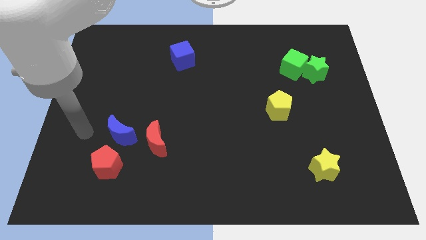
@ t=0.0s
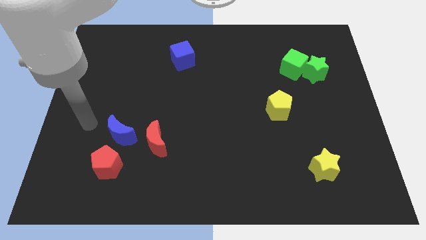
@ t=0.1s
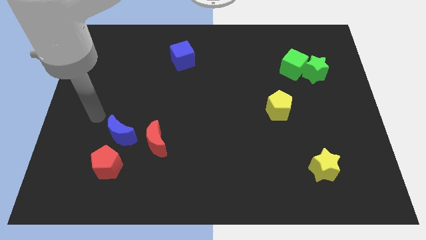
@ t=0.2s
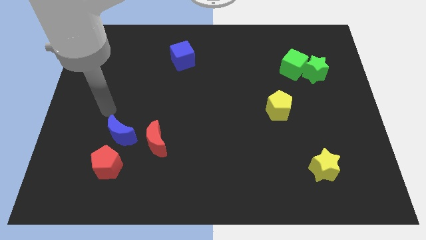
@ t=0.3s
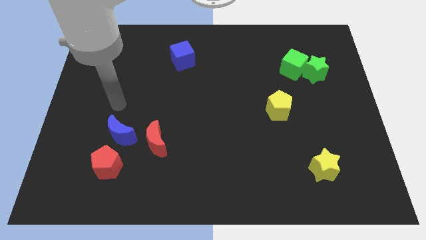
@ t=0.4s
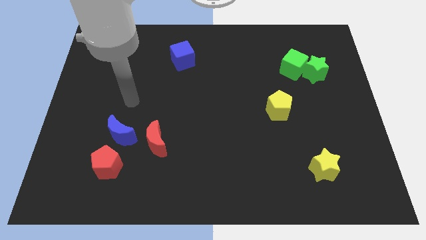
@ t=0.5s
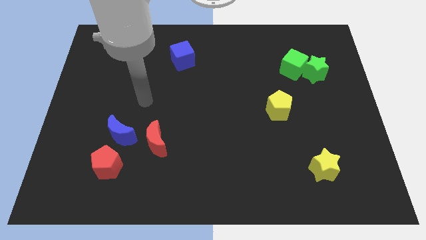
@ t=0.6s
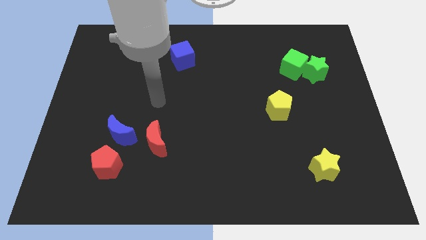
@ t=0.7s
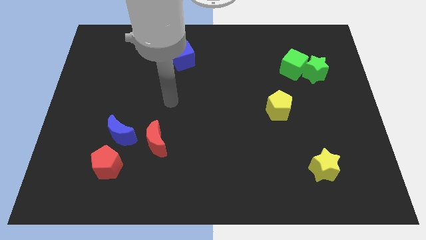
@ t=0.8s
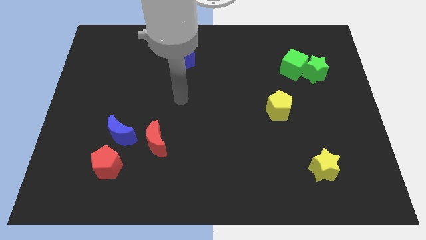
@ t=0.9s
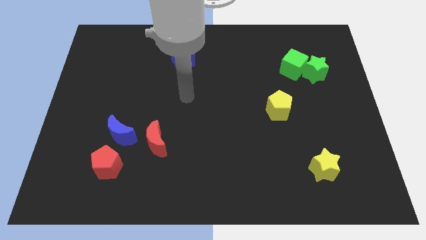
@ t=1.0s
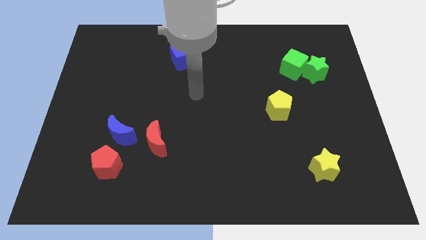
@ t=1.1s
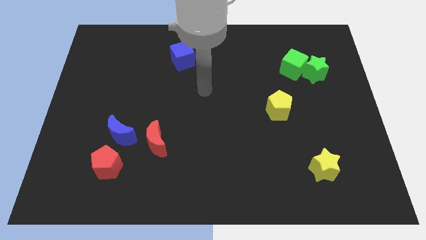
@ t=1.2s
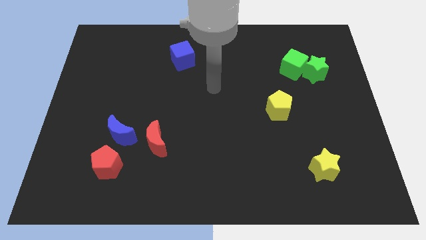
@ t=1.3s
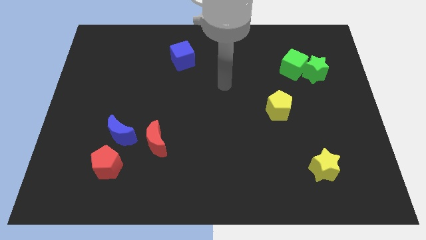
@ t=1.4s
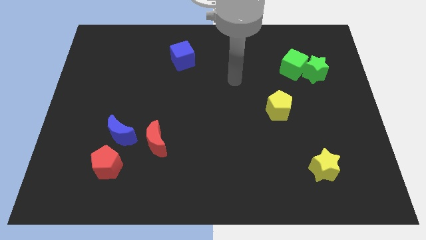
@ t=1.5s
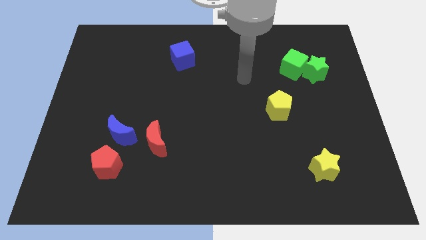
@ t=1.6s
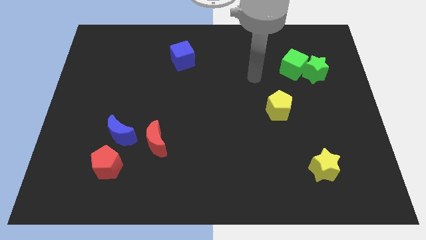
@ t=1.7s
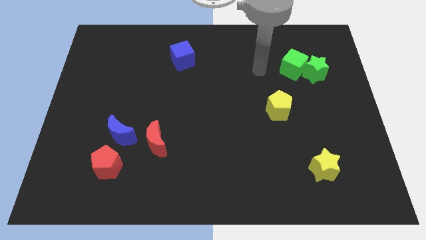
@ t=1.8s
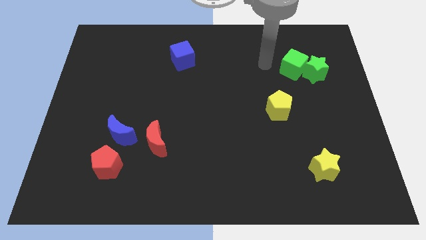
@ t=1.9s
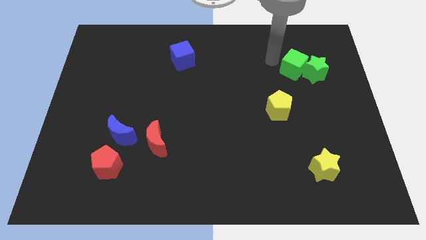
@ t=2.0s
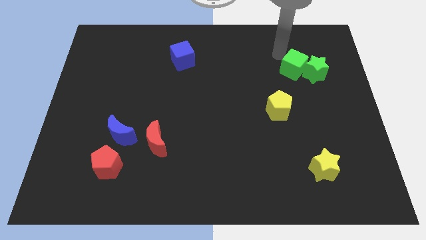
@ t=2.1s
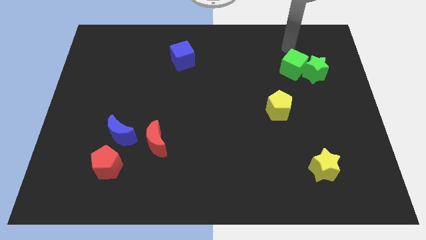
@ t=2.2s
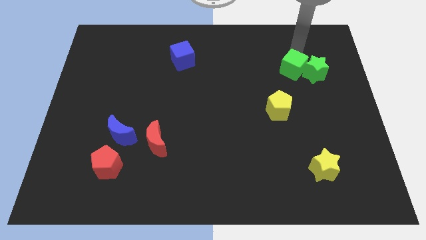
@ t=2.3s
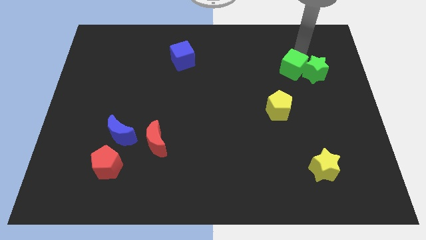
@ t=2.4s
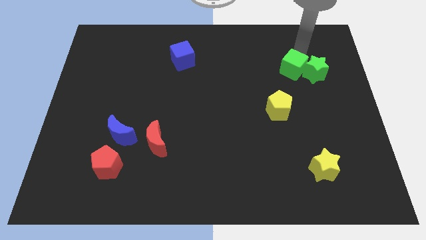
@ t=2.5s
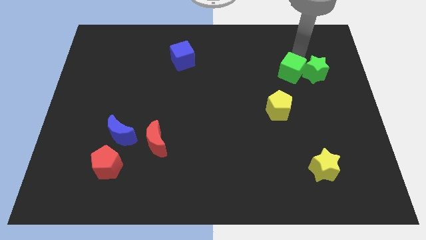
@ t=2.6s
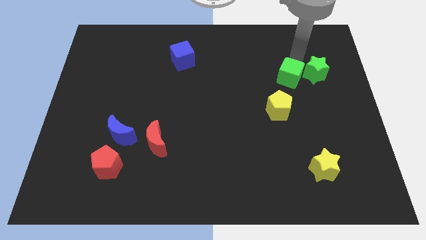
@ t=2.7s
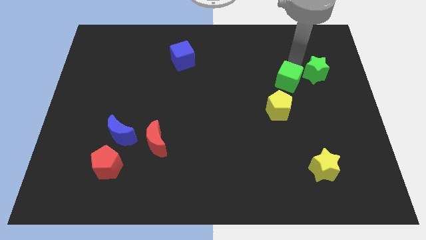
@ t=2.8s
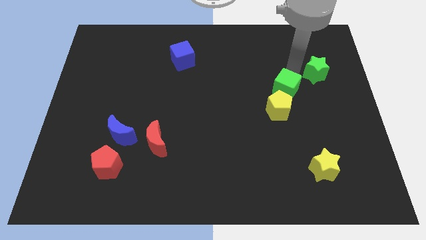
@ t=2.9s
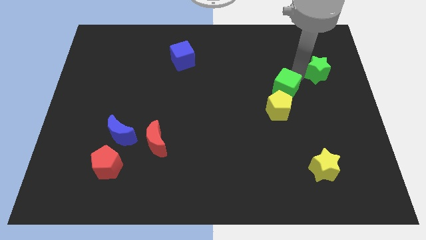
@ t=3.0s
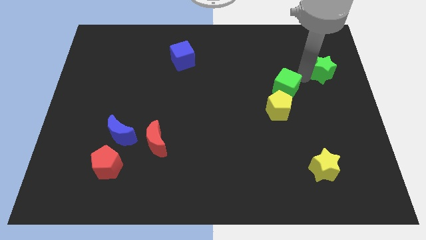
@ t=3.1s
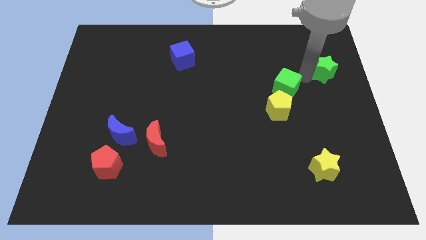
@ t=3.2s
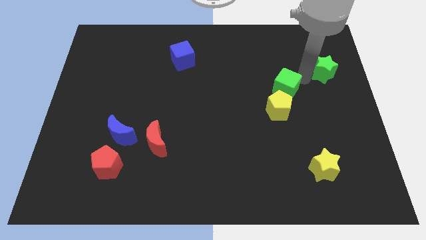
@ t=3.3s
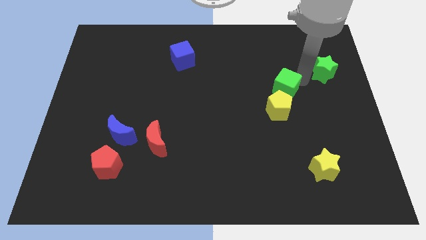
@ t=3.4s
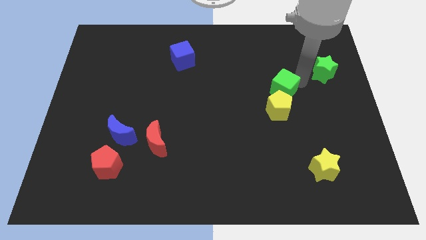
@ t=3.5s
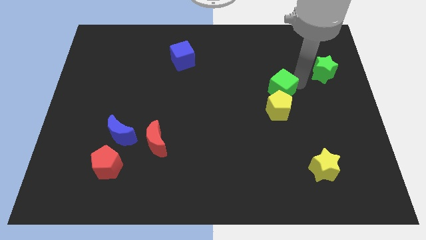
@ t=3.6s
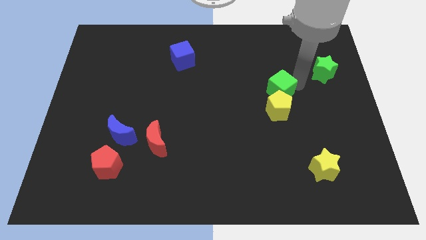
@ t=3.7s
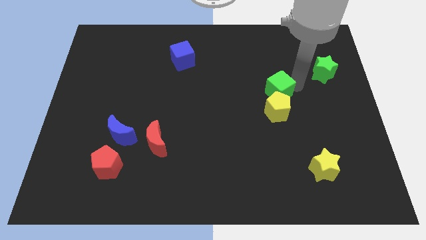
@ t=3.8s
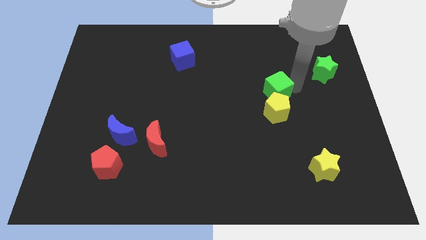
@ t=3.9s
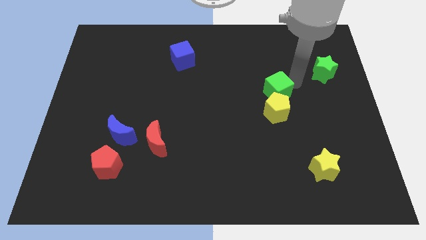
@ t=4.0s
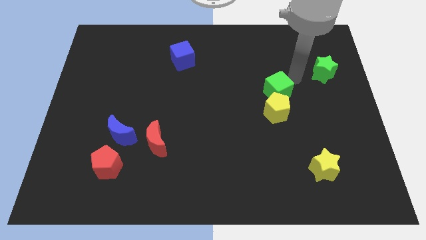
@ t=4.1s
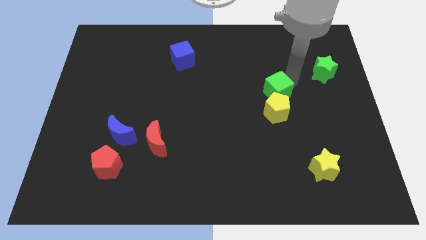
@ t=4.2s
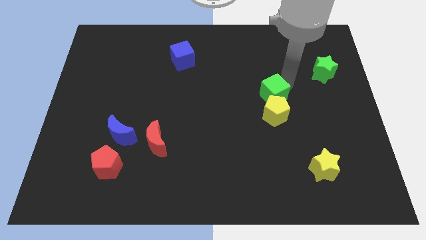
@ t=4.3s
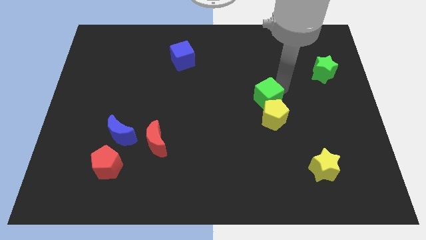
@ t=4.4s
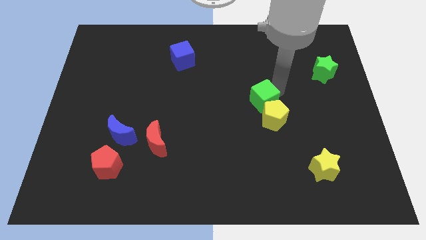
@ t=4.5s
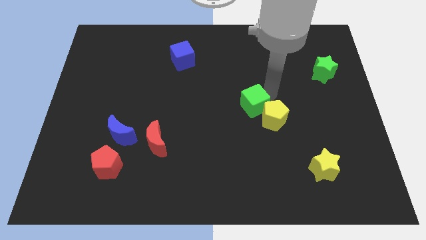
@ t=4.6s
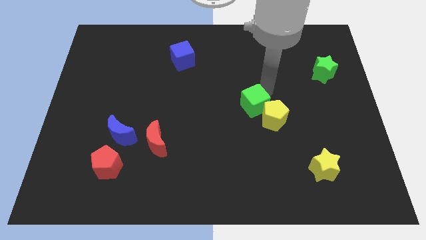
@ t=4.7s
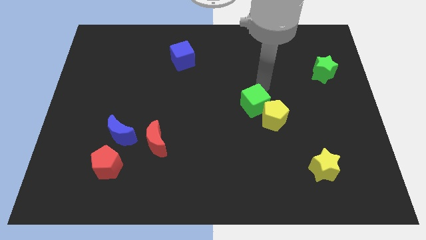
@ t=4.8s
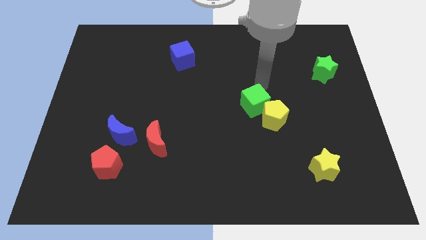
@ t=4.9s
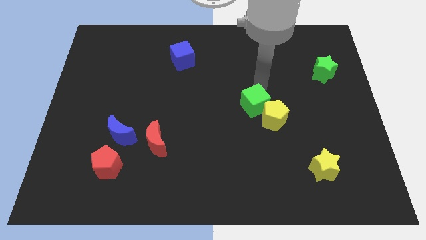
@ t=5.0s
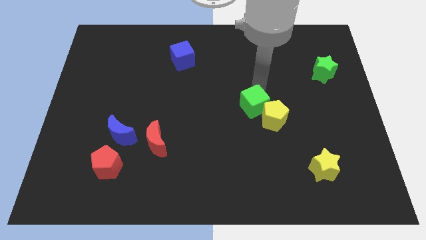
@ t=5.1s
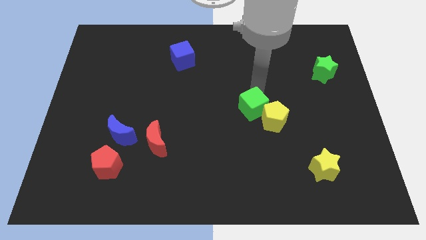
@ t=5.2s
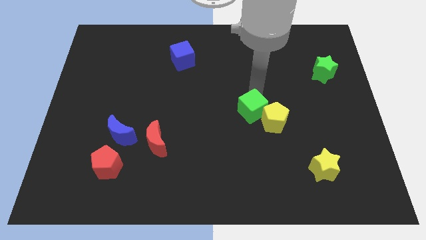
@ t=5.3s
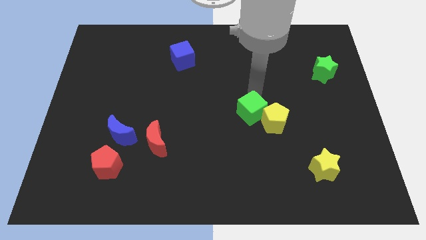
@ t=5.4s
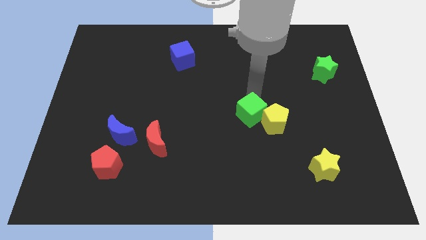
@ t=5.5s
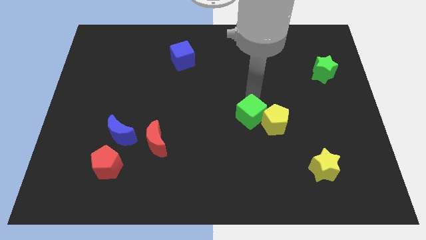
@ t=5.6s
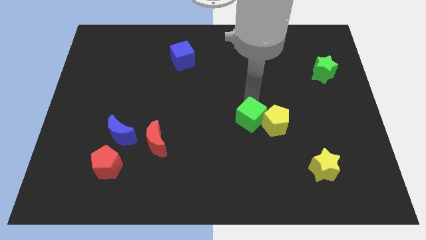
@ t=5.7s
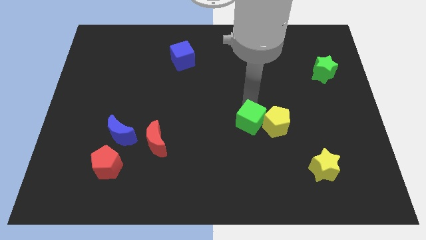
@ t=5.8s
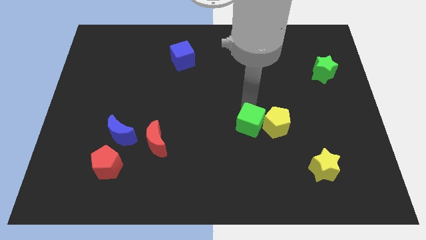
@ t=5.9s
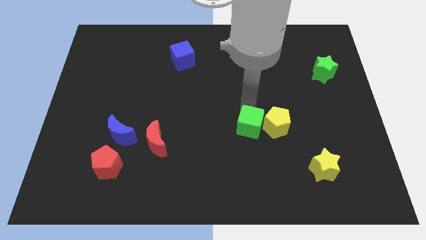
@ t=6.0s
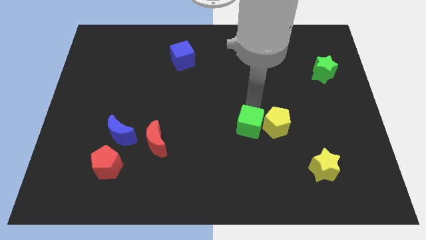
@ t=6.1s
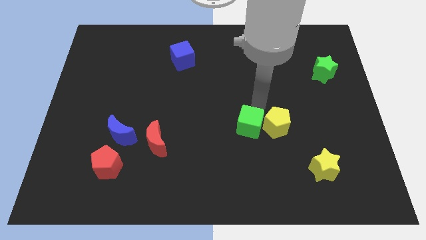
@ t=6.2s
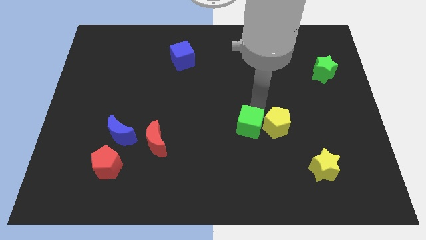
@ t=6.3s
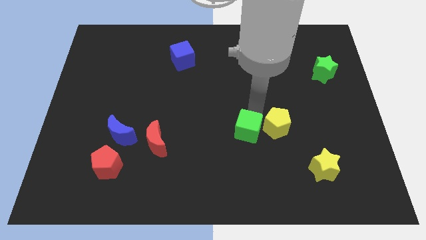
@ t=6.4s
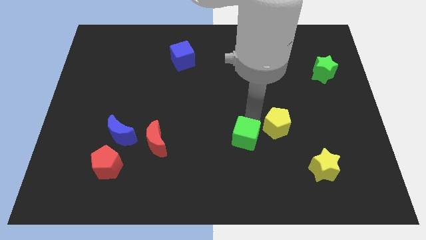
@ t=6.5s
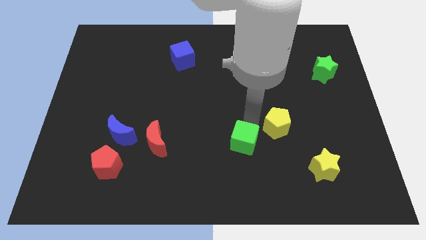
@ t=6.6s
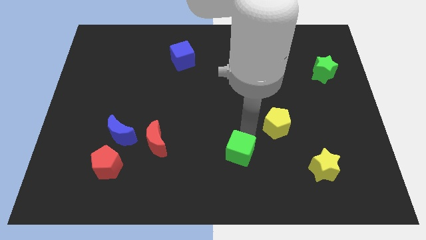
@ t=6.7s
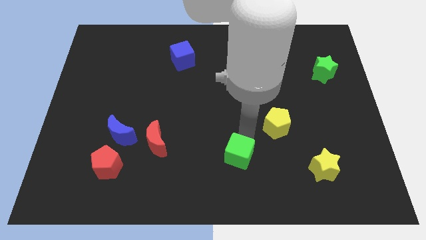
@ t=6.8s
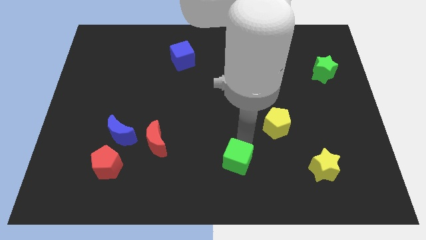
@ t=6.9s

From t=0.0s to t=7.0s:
push the green cube to the bottom
